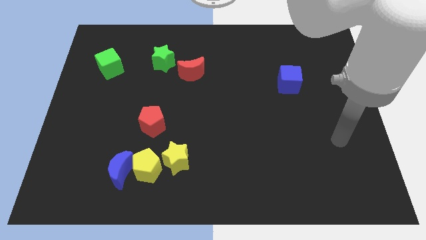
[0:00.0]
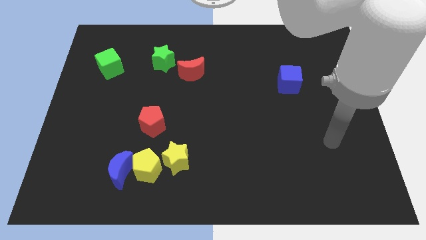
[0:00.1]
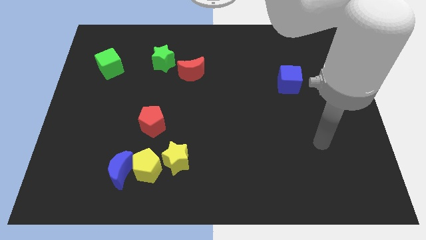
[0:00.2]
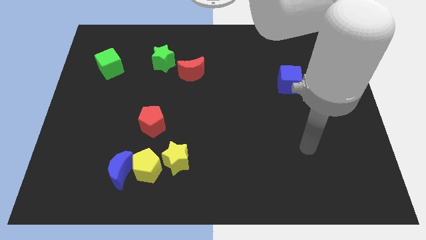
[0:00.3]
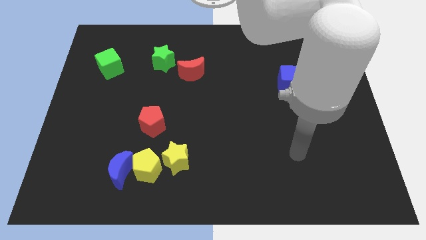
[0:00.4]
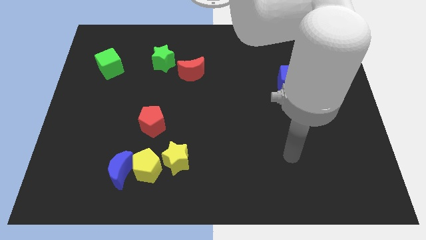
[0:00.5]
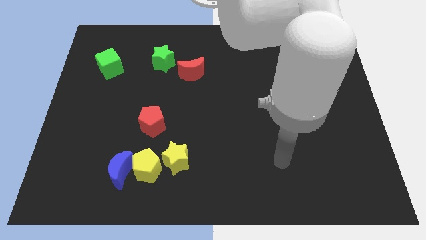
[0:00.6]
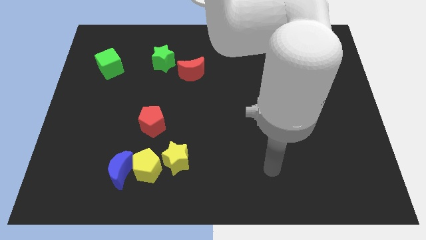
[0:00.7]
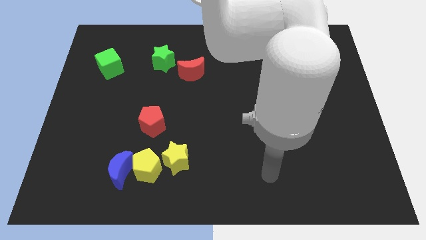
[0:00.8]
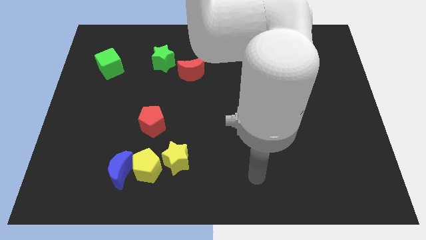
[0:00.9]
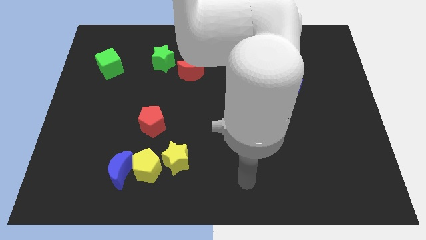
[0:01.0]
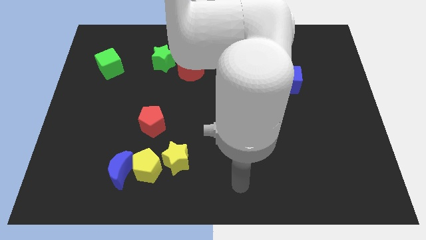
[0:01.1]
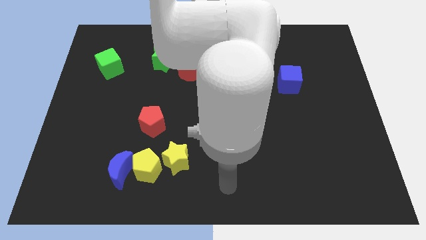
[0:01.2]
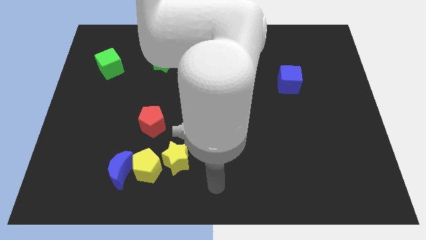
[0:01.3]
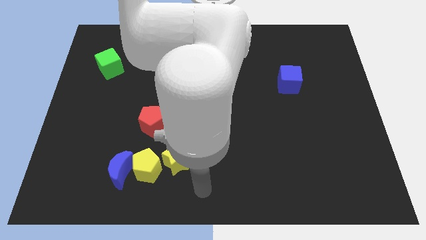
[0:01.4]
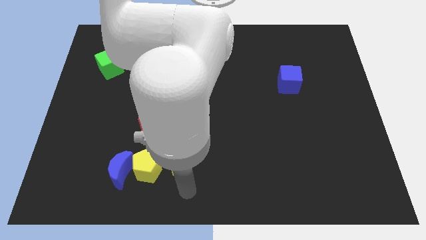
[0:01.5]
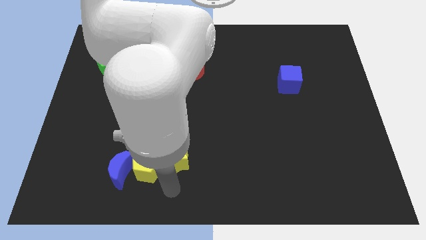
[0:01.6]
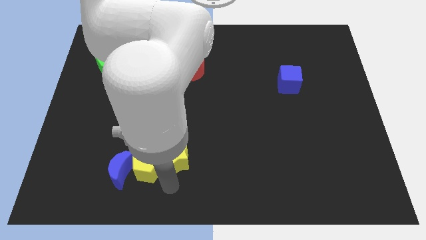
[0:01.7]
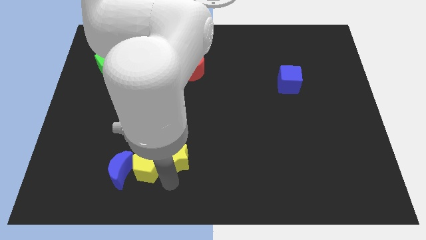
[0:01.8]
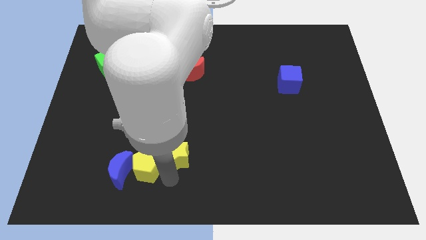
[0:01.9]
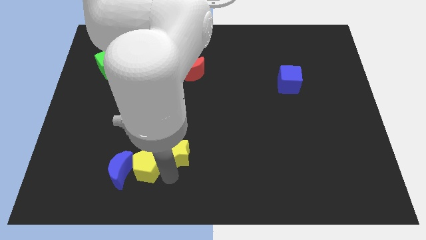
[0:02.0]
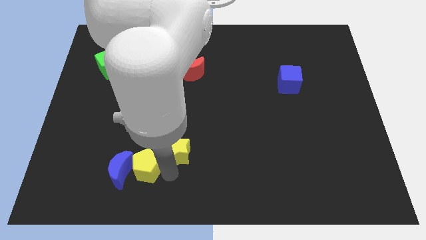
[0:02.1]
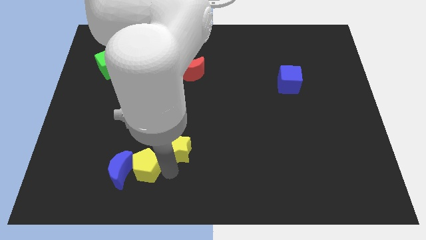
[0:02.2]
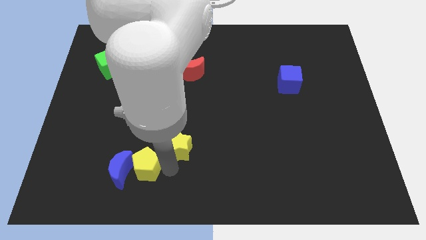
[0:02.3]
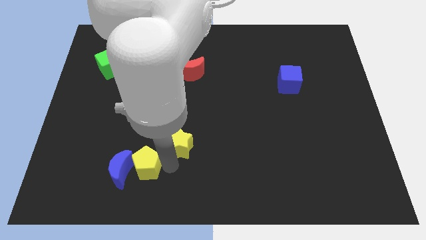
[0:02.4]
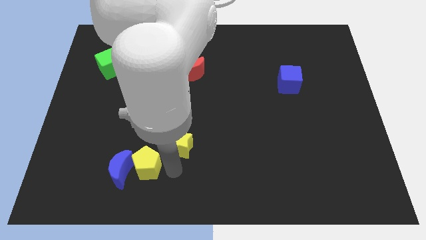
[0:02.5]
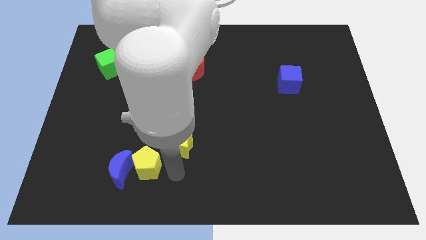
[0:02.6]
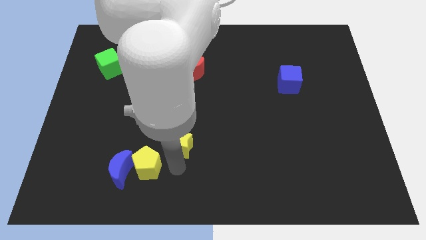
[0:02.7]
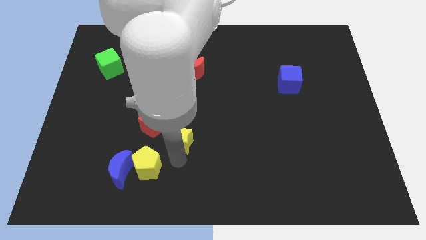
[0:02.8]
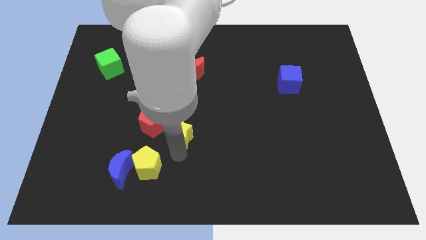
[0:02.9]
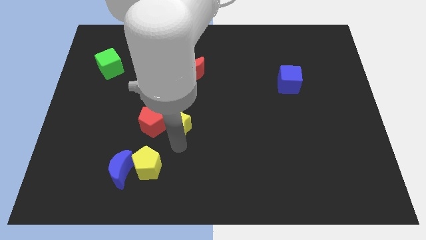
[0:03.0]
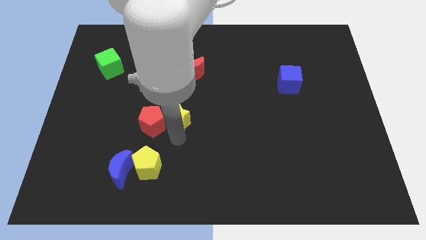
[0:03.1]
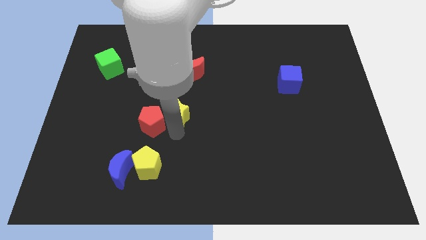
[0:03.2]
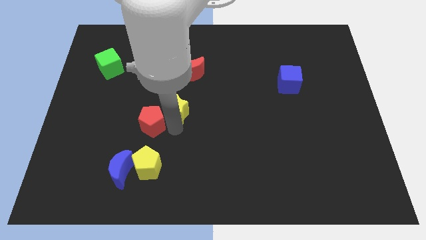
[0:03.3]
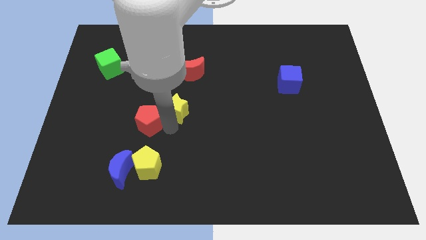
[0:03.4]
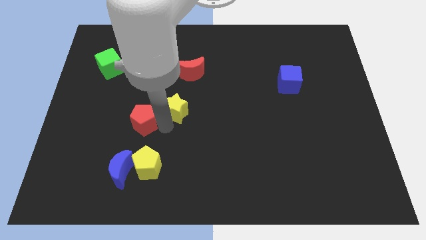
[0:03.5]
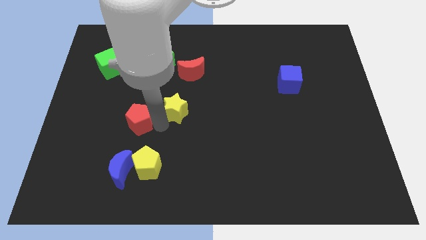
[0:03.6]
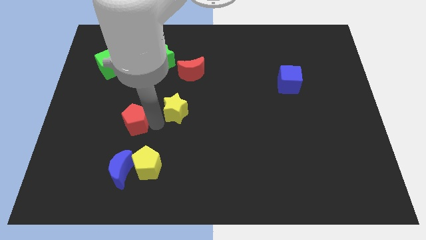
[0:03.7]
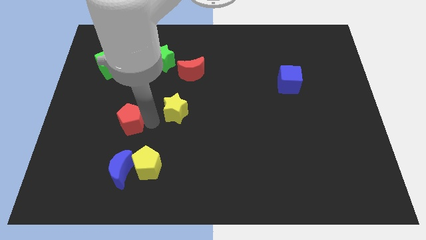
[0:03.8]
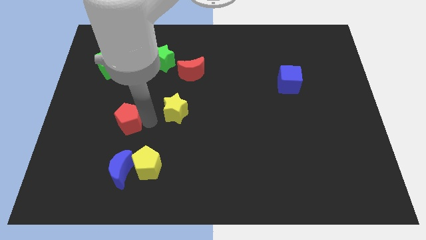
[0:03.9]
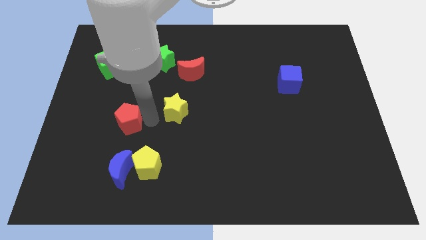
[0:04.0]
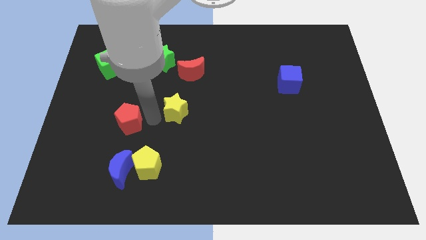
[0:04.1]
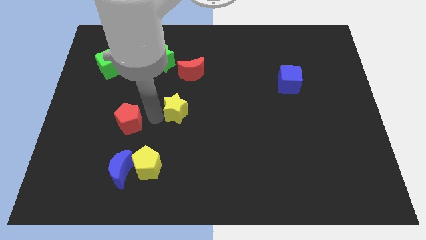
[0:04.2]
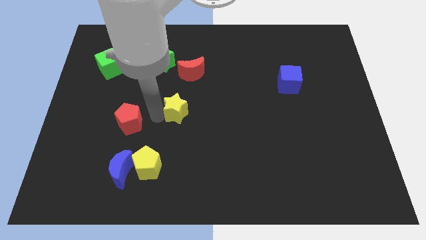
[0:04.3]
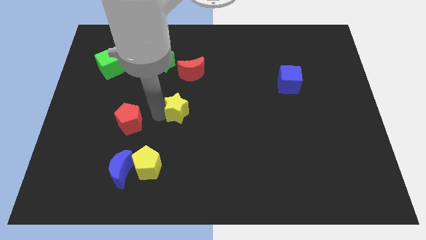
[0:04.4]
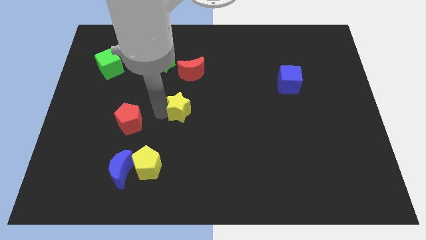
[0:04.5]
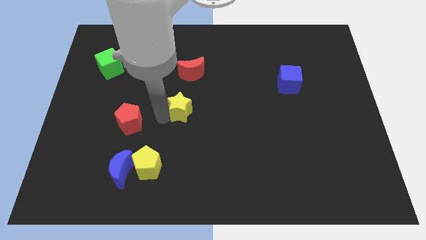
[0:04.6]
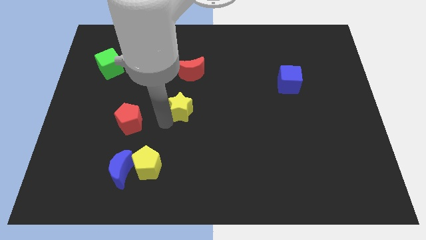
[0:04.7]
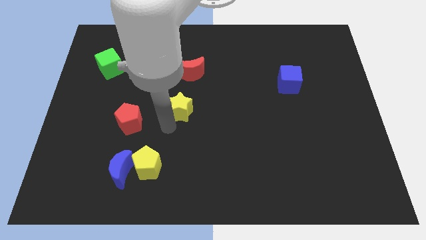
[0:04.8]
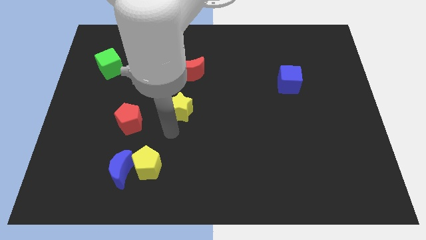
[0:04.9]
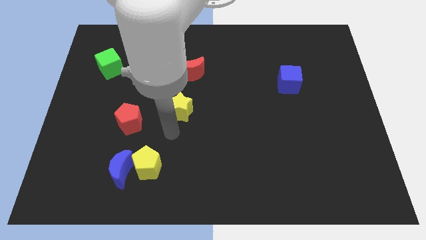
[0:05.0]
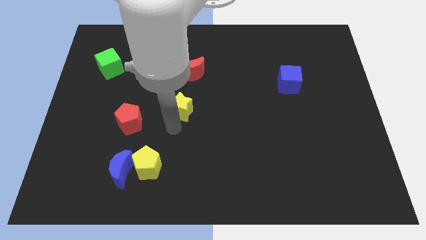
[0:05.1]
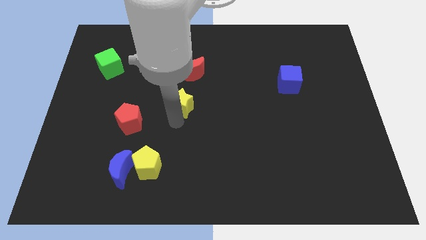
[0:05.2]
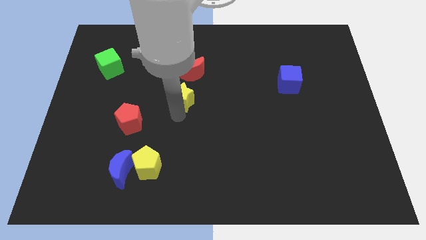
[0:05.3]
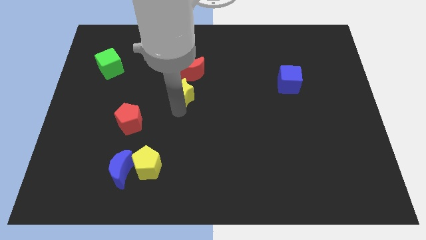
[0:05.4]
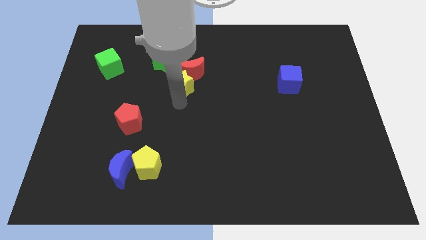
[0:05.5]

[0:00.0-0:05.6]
push the yellow star next to the red moon
